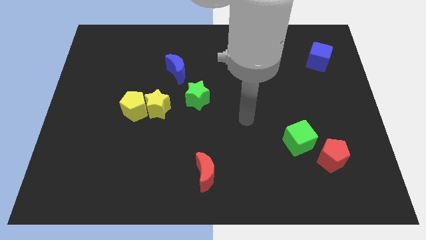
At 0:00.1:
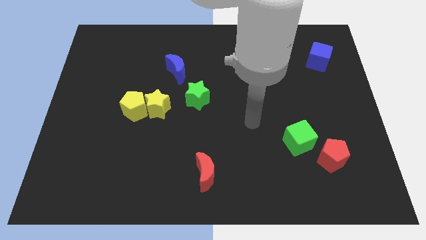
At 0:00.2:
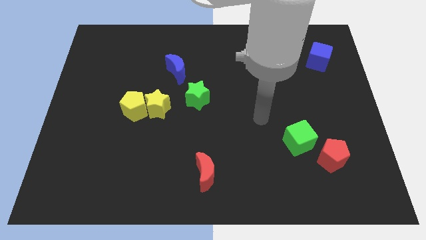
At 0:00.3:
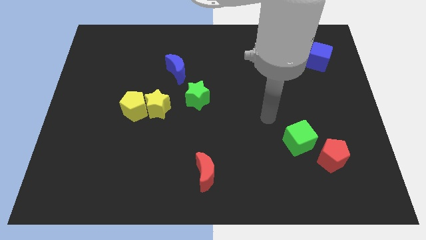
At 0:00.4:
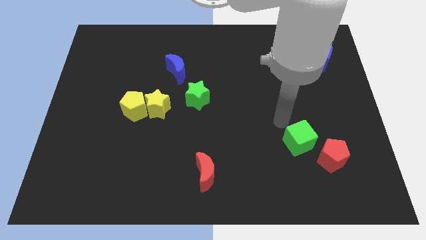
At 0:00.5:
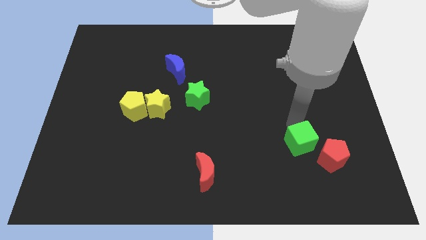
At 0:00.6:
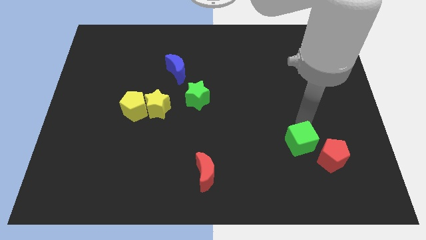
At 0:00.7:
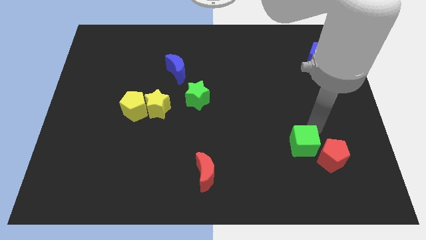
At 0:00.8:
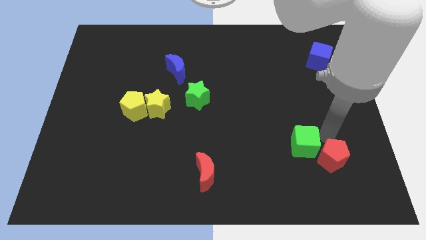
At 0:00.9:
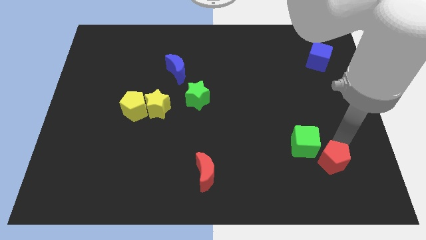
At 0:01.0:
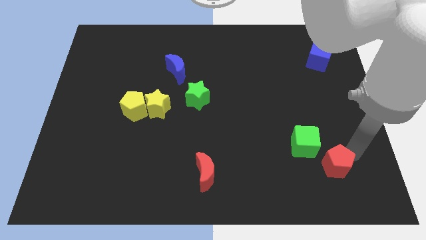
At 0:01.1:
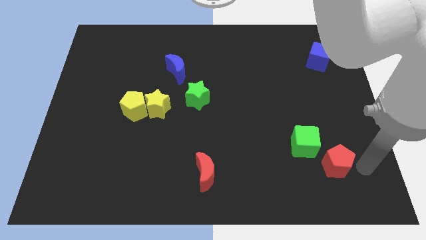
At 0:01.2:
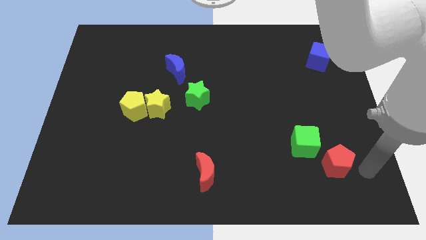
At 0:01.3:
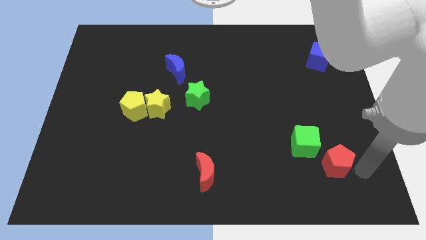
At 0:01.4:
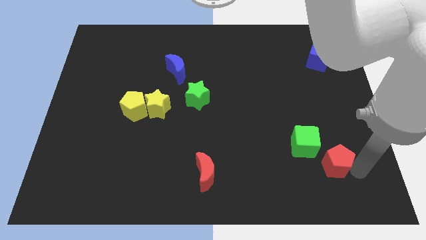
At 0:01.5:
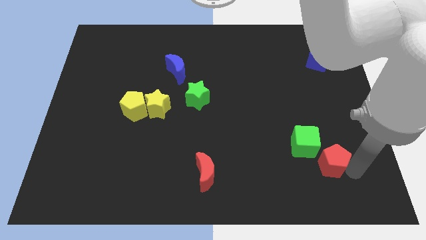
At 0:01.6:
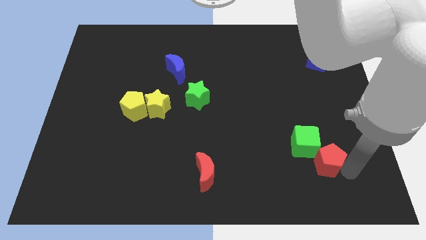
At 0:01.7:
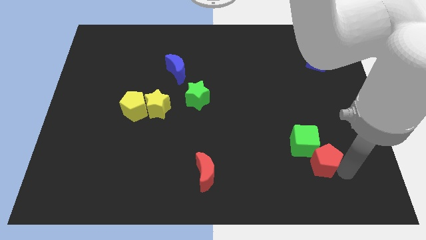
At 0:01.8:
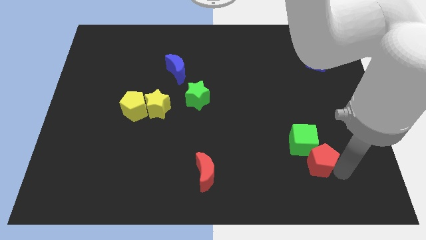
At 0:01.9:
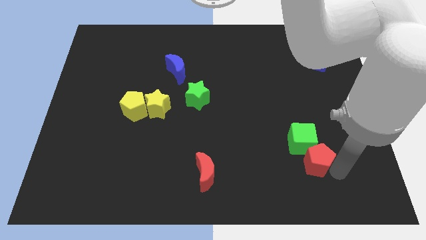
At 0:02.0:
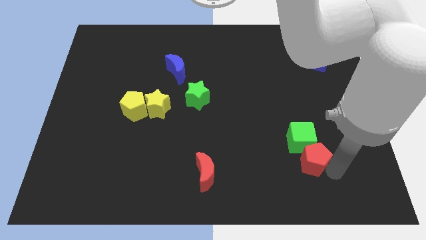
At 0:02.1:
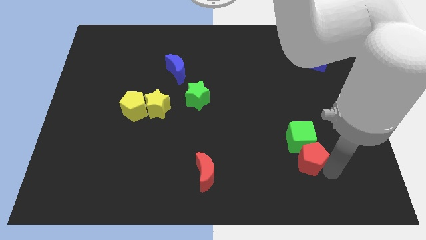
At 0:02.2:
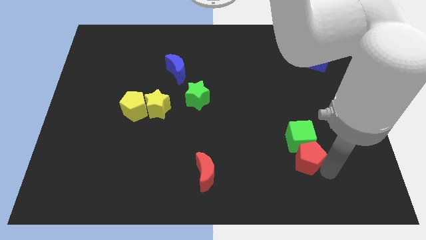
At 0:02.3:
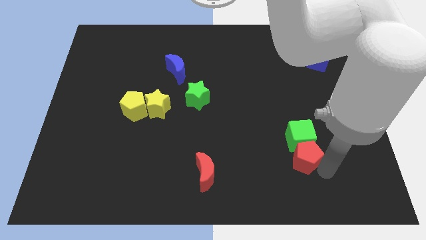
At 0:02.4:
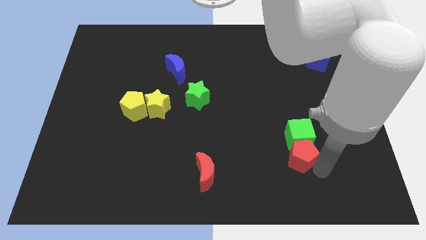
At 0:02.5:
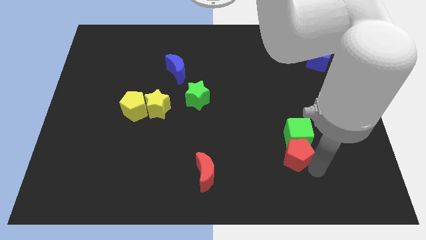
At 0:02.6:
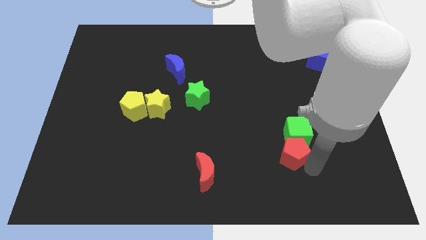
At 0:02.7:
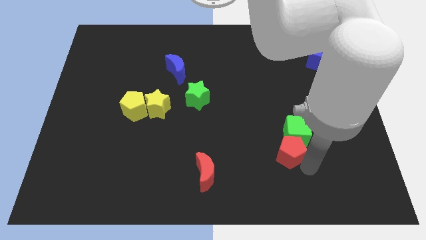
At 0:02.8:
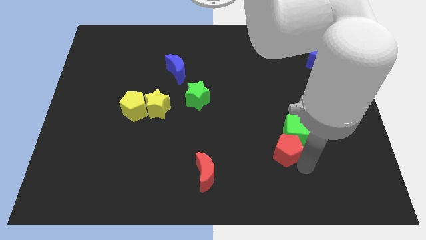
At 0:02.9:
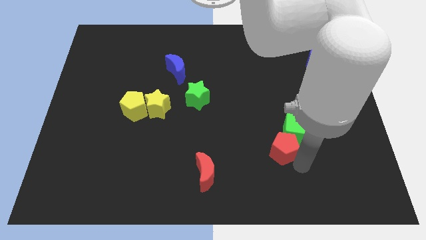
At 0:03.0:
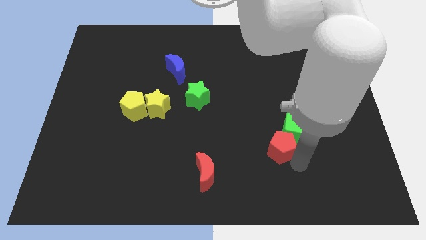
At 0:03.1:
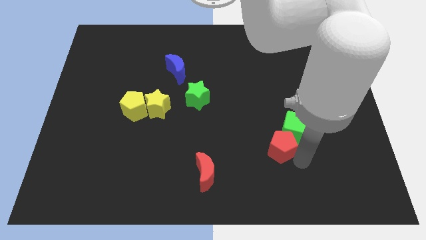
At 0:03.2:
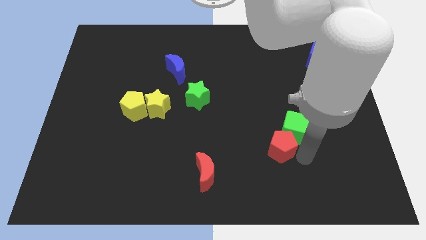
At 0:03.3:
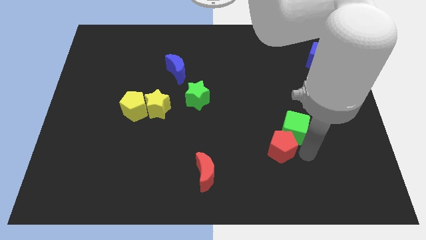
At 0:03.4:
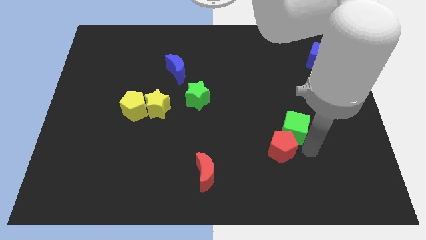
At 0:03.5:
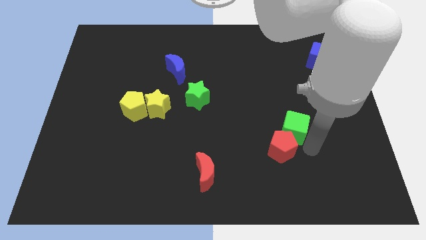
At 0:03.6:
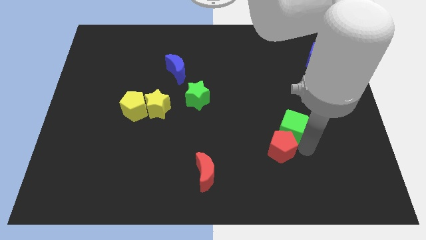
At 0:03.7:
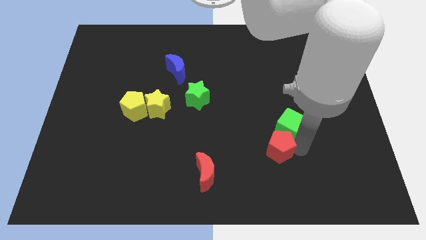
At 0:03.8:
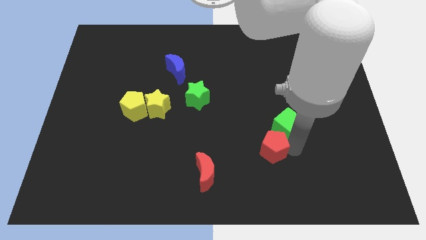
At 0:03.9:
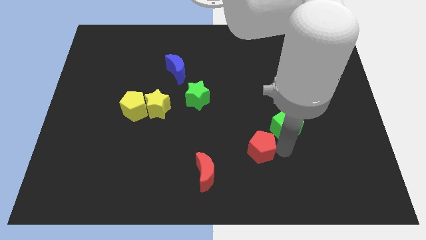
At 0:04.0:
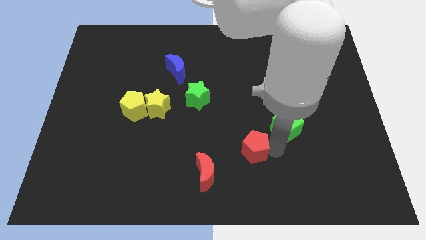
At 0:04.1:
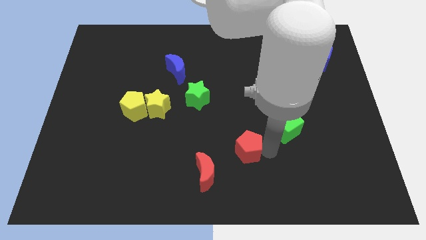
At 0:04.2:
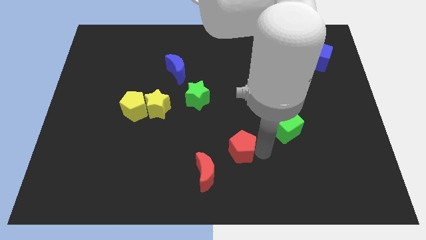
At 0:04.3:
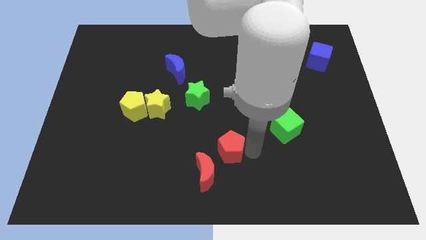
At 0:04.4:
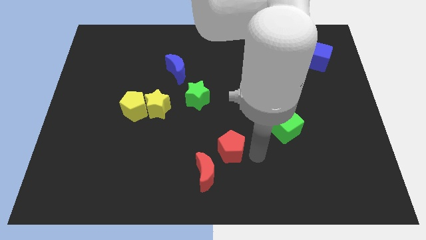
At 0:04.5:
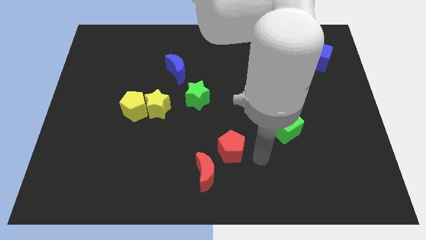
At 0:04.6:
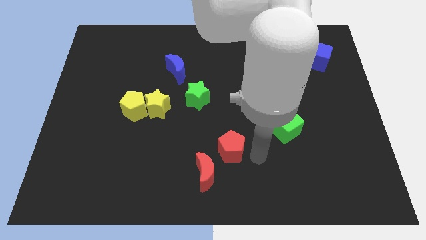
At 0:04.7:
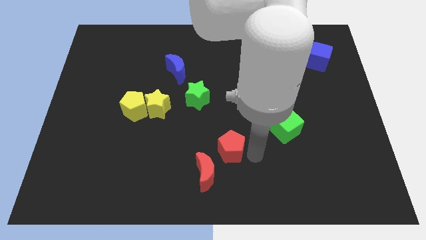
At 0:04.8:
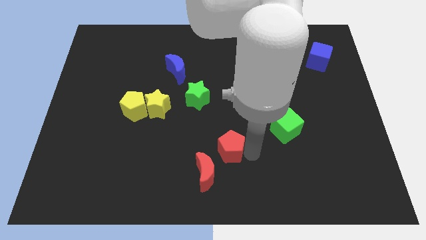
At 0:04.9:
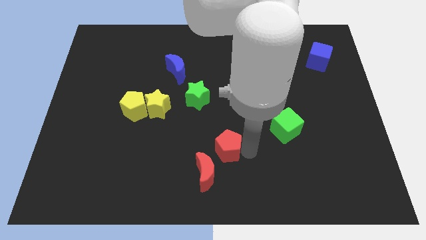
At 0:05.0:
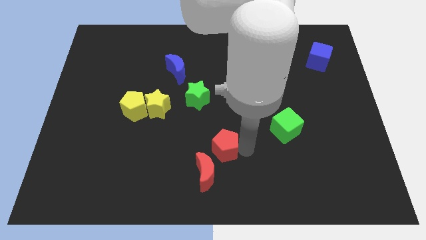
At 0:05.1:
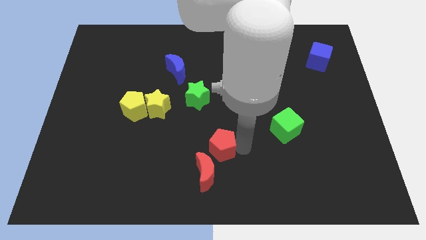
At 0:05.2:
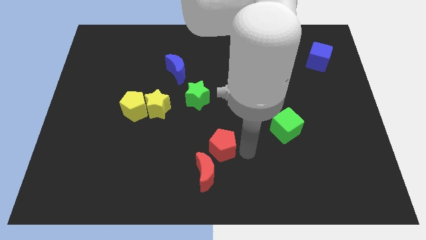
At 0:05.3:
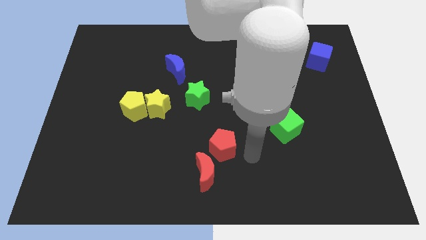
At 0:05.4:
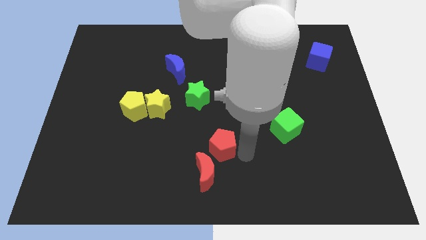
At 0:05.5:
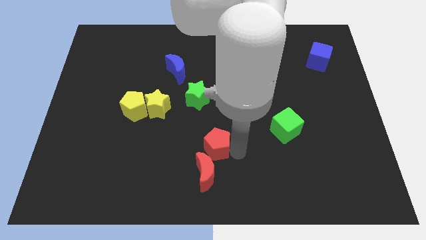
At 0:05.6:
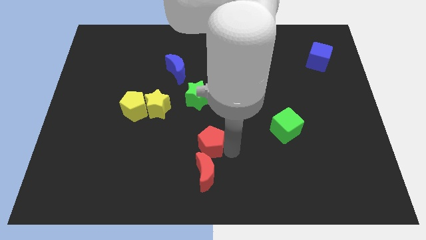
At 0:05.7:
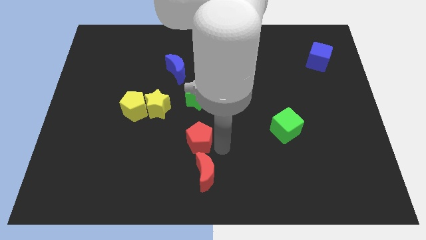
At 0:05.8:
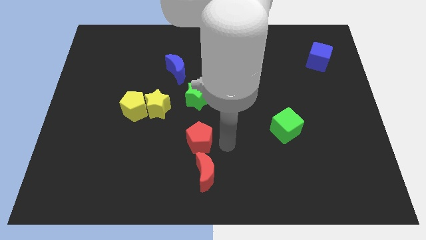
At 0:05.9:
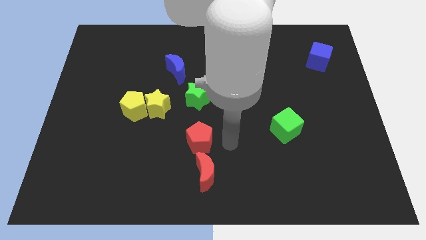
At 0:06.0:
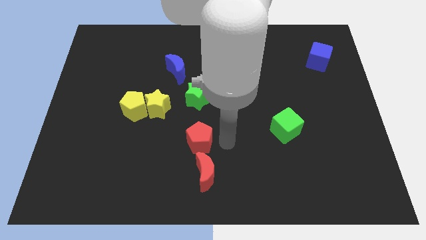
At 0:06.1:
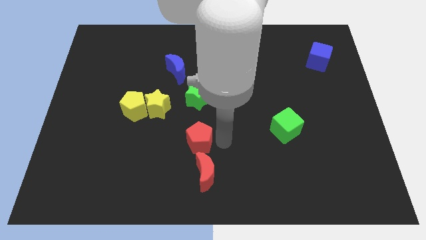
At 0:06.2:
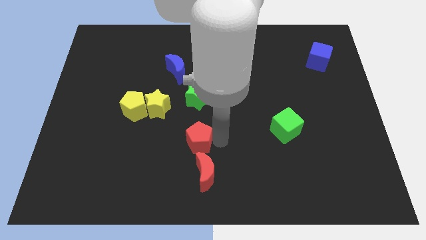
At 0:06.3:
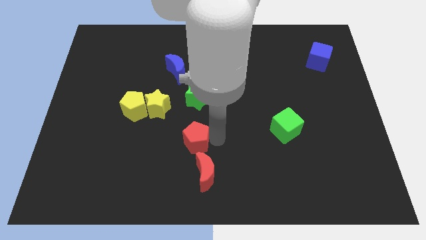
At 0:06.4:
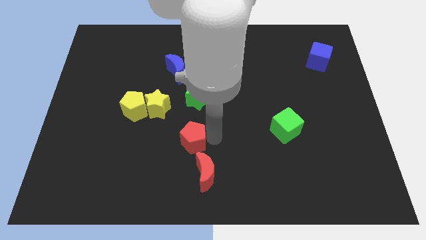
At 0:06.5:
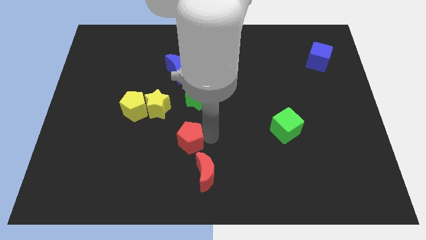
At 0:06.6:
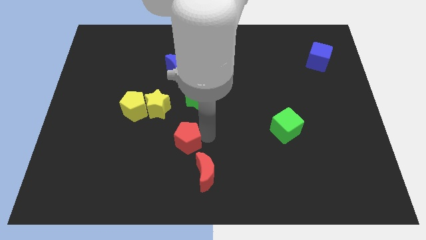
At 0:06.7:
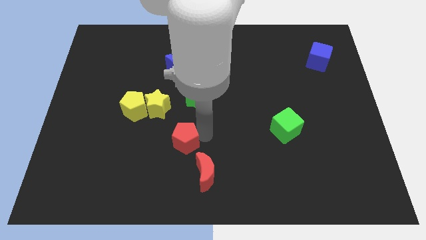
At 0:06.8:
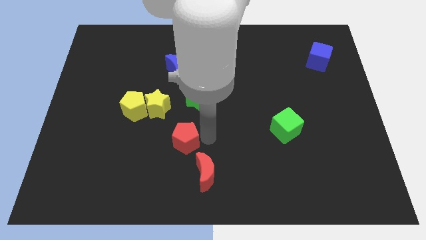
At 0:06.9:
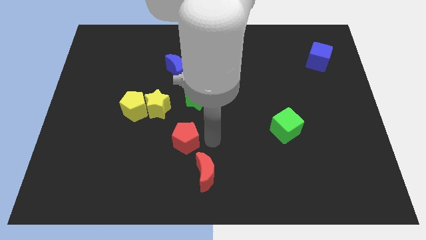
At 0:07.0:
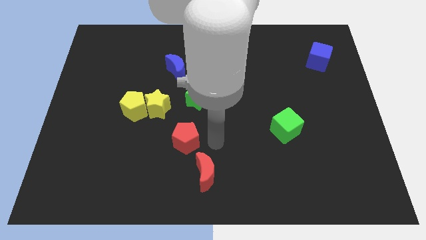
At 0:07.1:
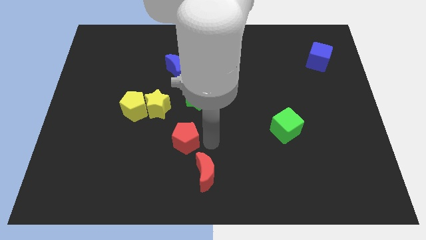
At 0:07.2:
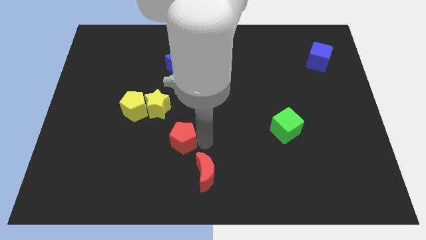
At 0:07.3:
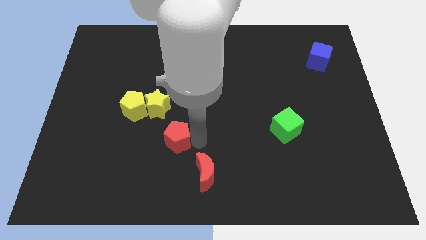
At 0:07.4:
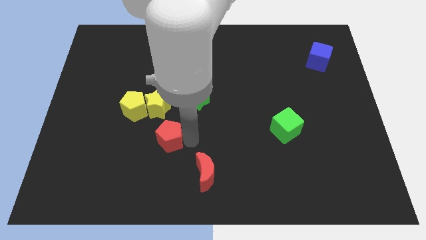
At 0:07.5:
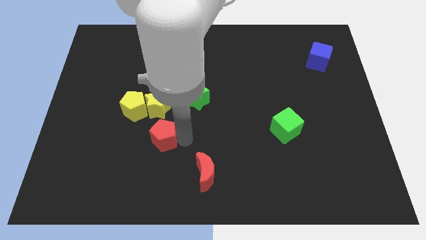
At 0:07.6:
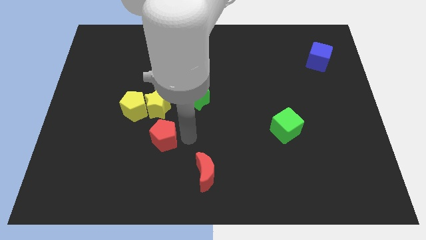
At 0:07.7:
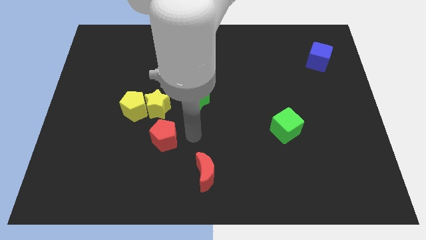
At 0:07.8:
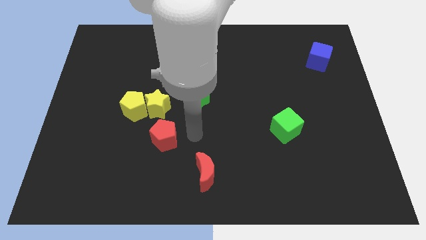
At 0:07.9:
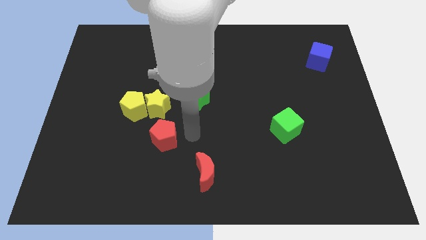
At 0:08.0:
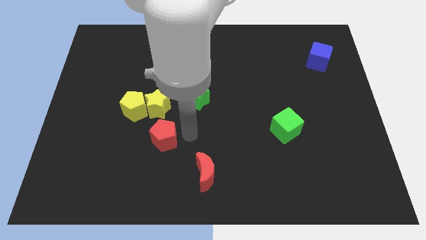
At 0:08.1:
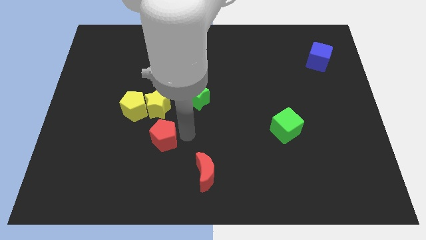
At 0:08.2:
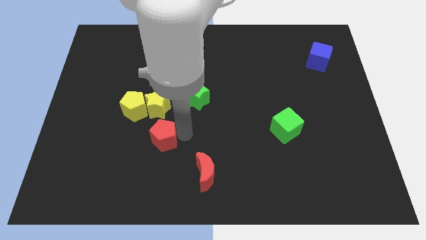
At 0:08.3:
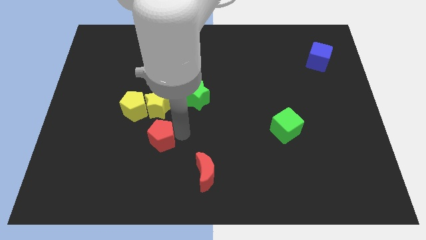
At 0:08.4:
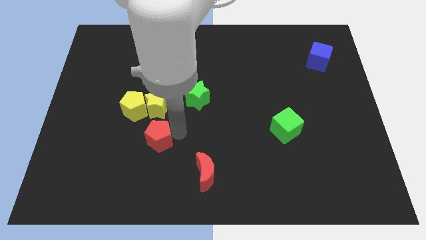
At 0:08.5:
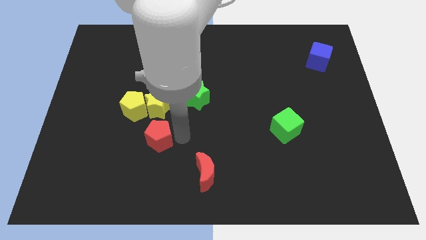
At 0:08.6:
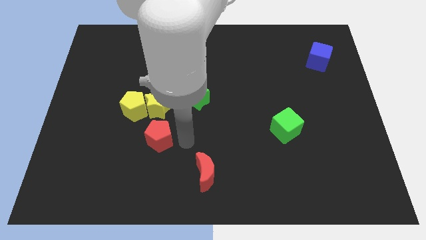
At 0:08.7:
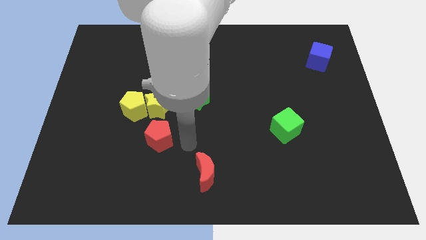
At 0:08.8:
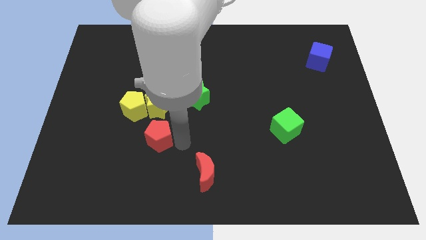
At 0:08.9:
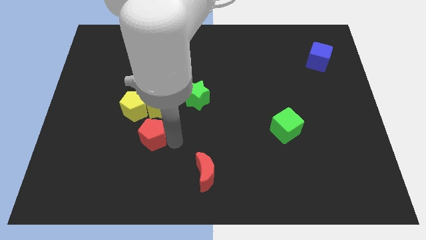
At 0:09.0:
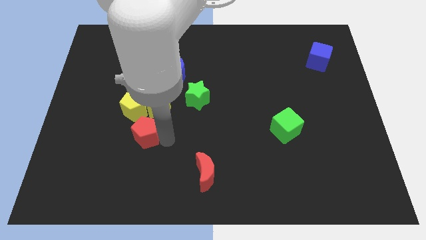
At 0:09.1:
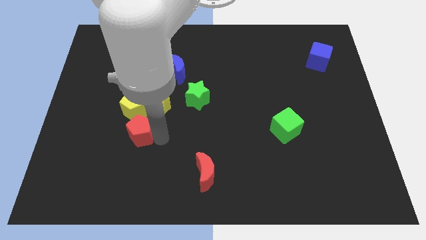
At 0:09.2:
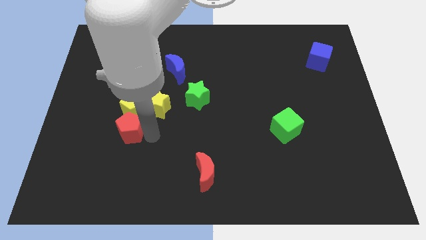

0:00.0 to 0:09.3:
push the red pentagon diagonally down and to the left of the yellow pentagon
